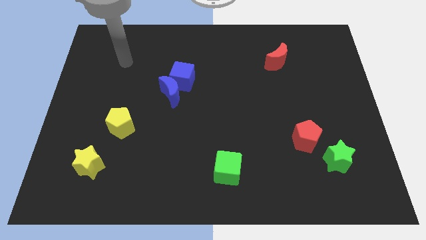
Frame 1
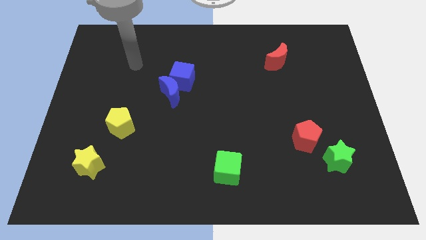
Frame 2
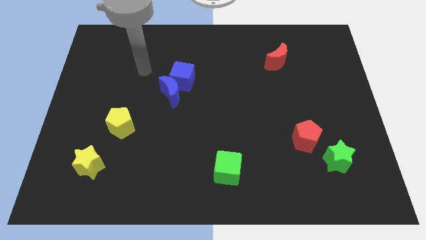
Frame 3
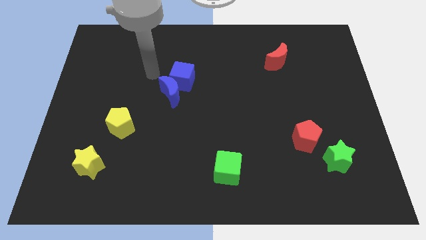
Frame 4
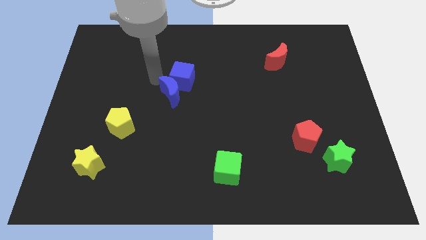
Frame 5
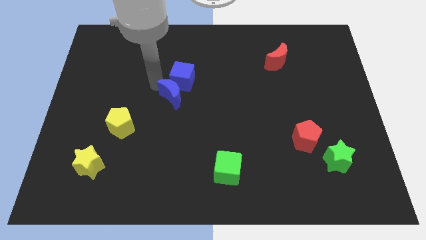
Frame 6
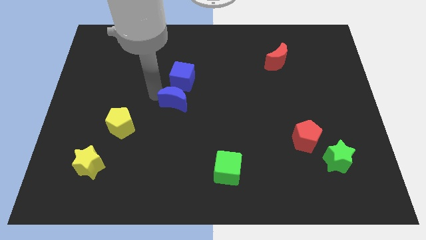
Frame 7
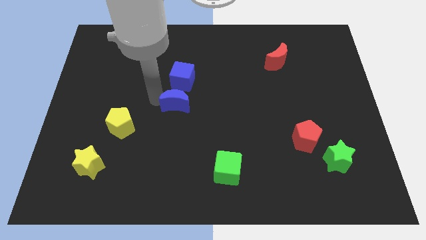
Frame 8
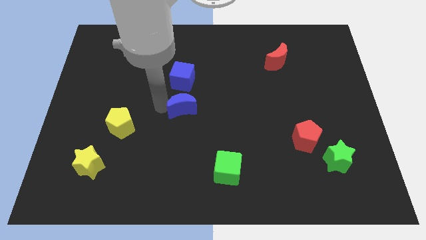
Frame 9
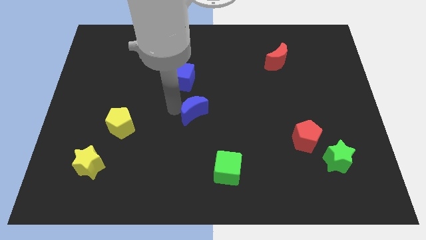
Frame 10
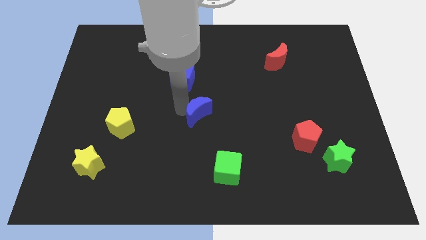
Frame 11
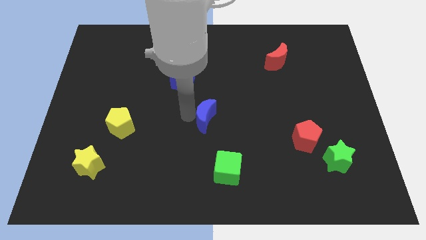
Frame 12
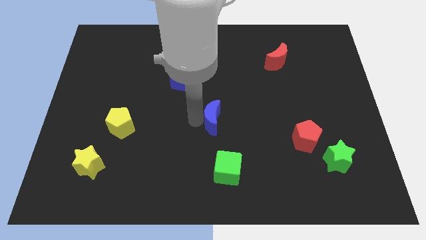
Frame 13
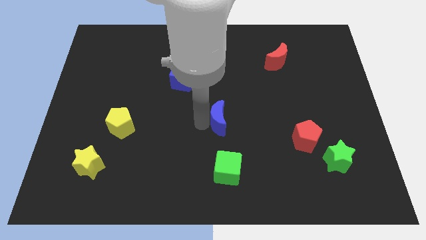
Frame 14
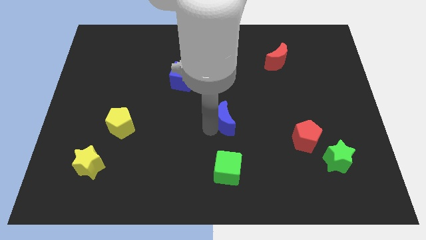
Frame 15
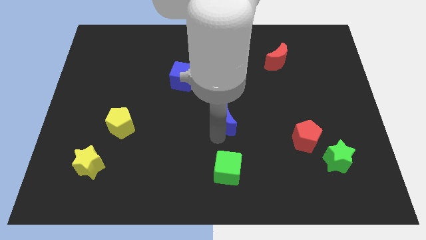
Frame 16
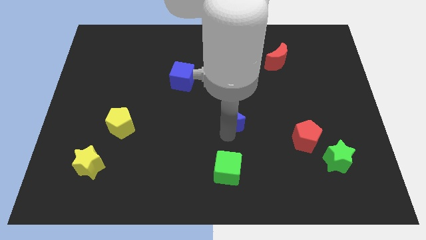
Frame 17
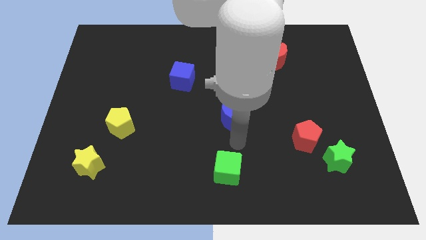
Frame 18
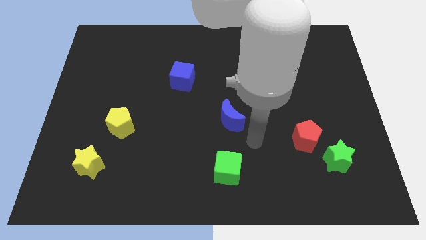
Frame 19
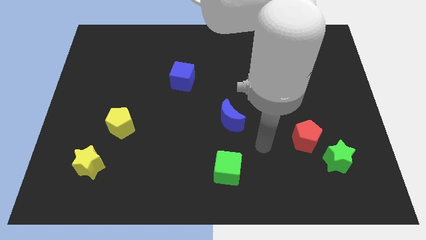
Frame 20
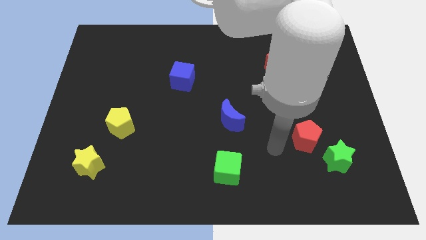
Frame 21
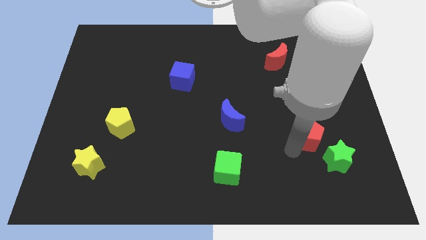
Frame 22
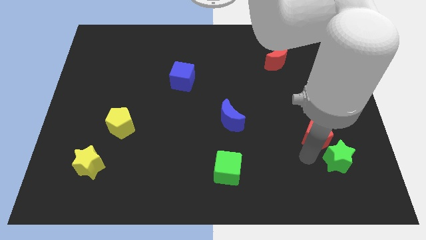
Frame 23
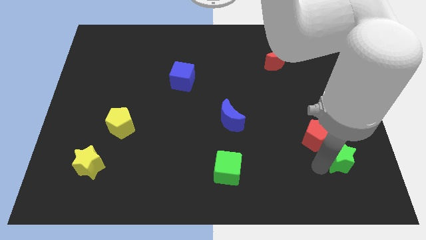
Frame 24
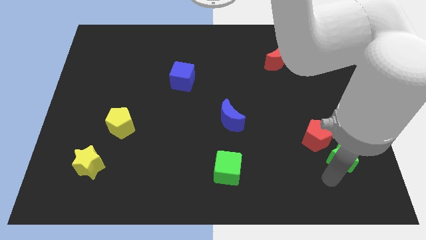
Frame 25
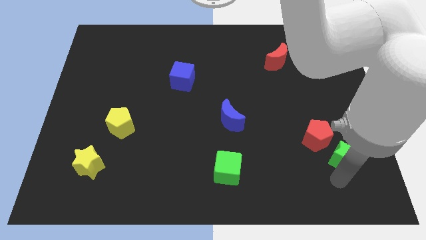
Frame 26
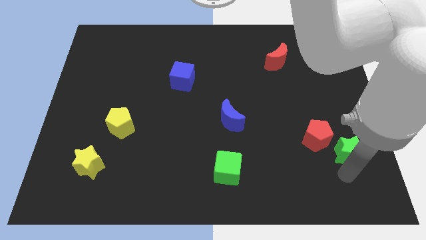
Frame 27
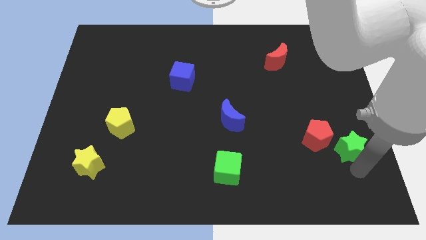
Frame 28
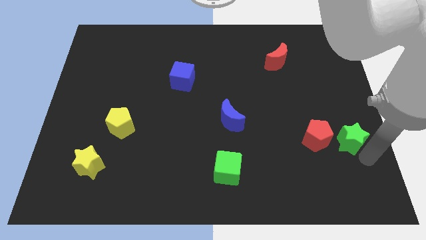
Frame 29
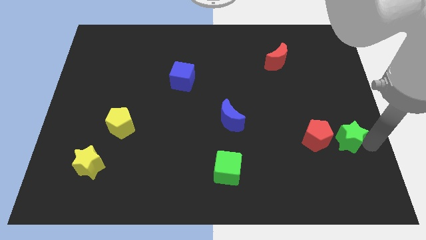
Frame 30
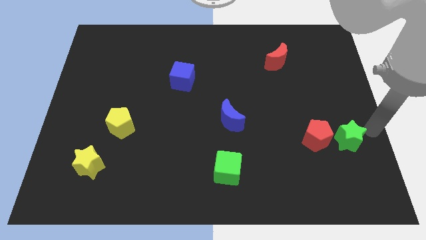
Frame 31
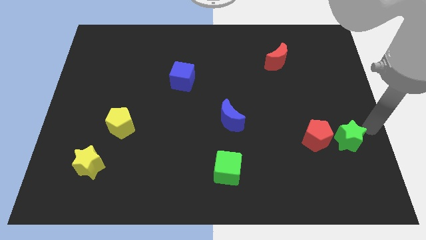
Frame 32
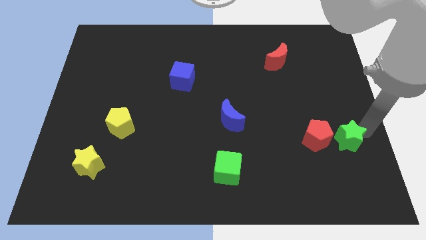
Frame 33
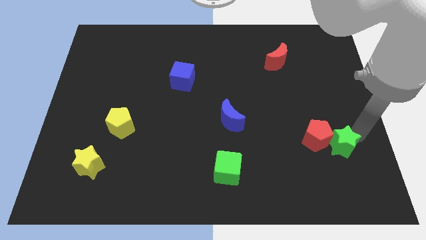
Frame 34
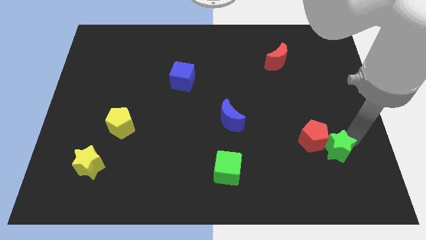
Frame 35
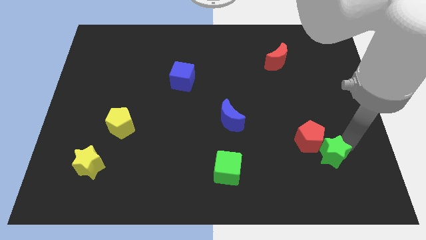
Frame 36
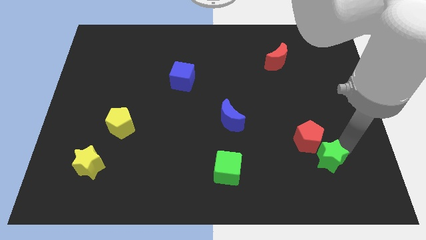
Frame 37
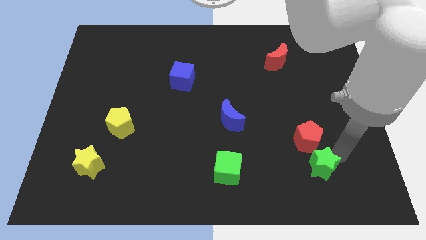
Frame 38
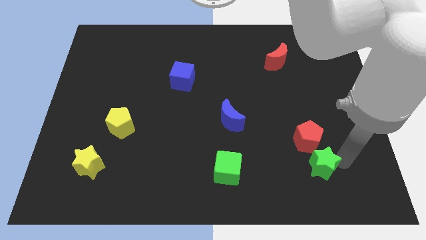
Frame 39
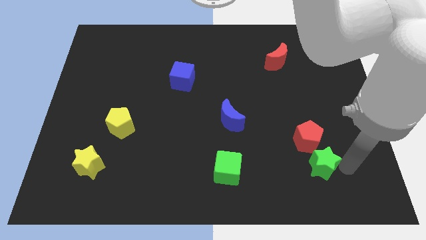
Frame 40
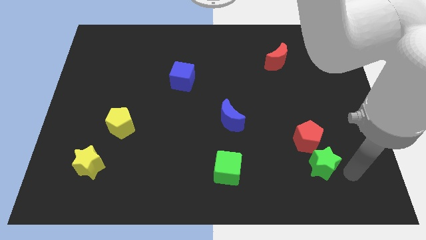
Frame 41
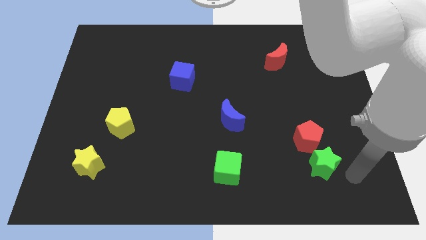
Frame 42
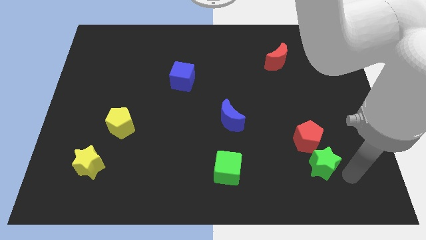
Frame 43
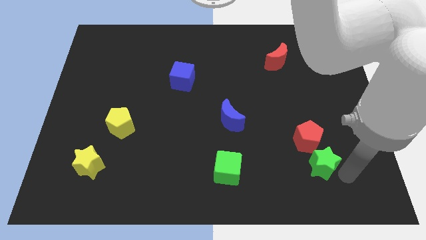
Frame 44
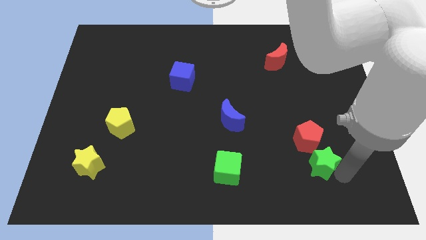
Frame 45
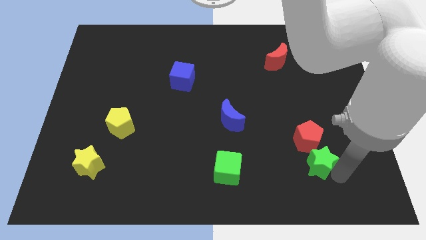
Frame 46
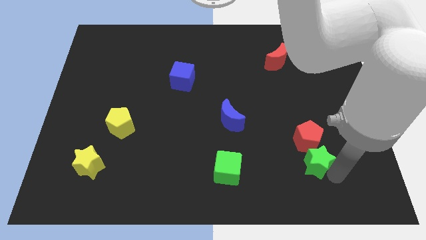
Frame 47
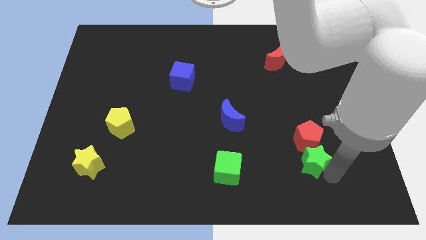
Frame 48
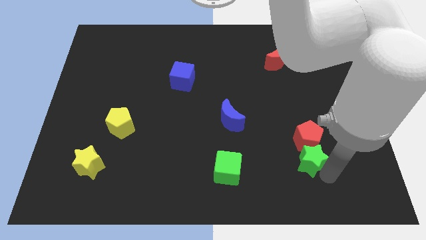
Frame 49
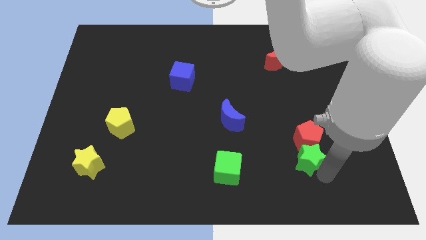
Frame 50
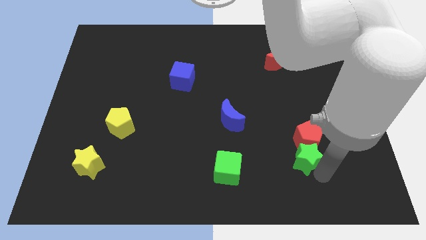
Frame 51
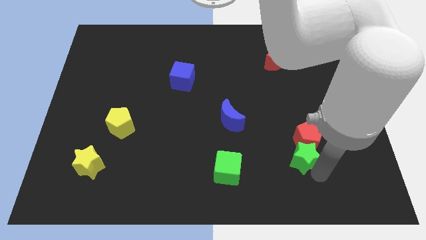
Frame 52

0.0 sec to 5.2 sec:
slightly slide the green star to the left

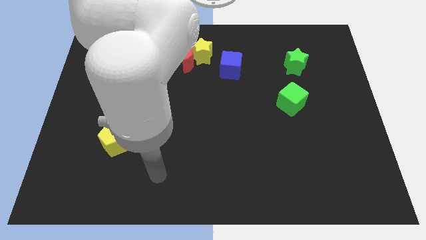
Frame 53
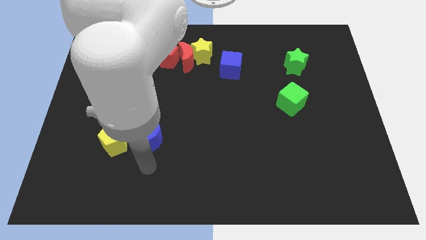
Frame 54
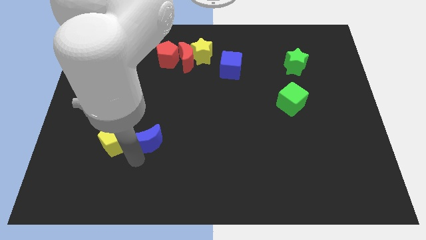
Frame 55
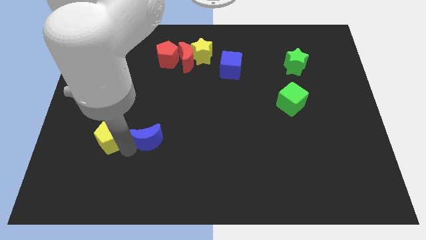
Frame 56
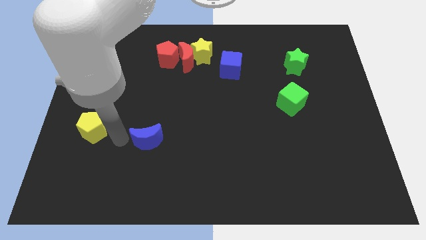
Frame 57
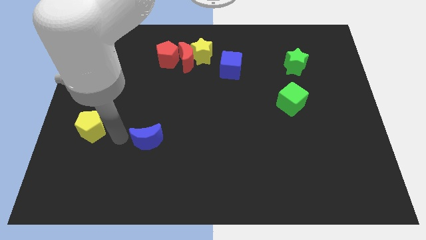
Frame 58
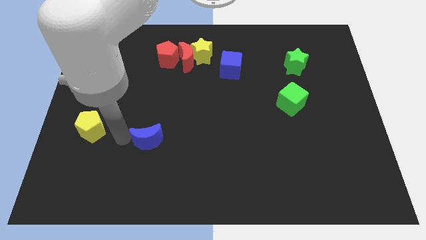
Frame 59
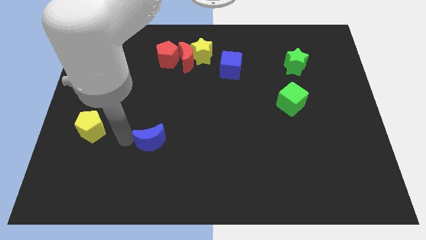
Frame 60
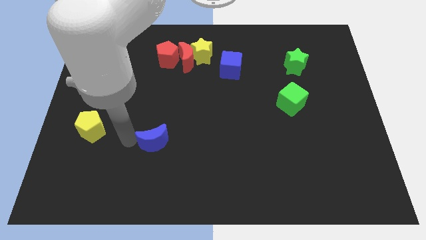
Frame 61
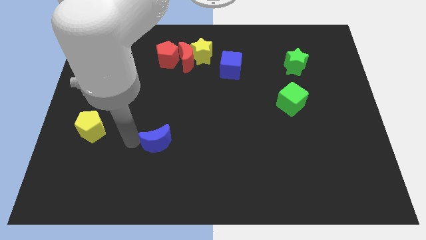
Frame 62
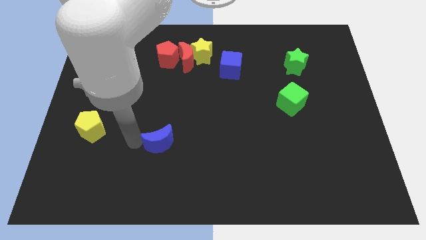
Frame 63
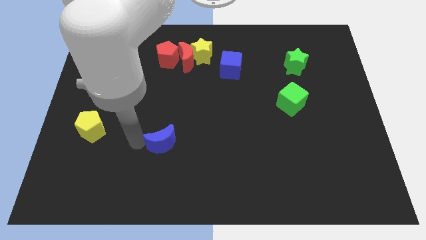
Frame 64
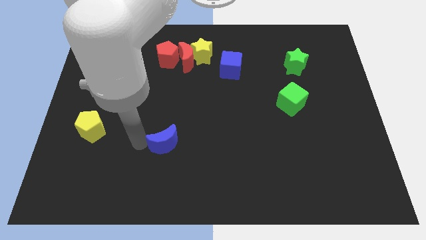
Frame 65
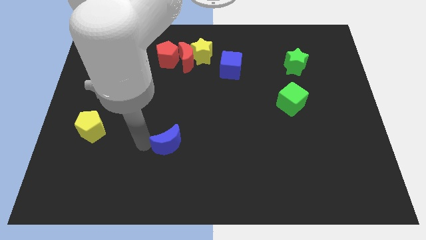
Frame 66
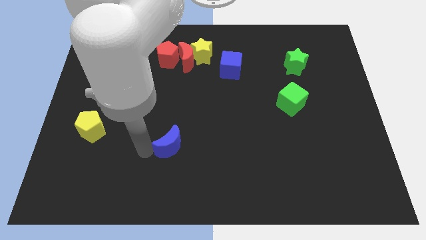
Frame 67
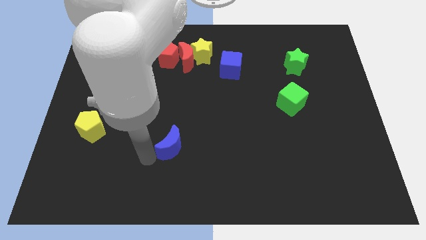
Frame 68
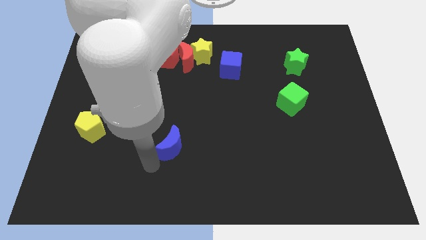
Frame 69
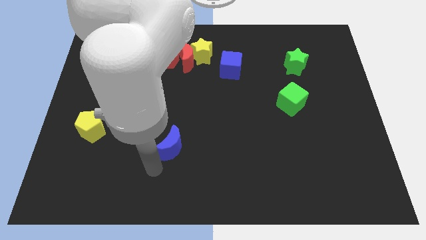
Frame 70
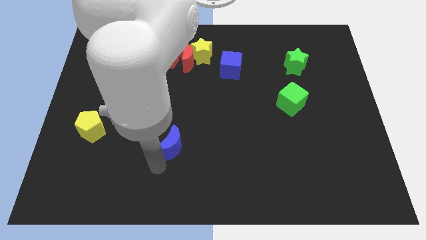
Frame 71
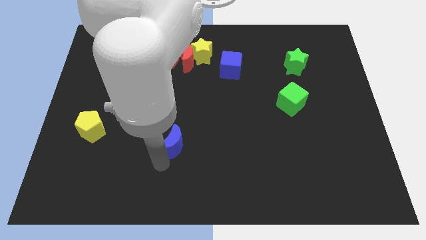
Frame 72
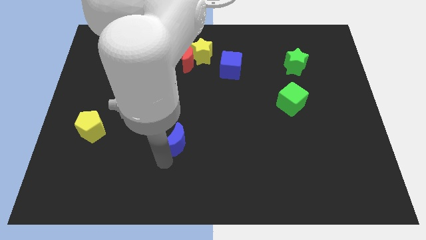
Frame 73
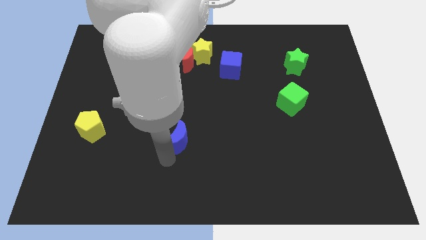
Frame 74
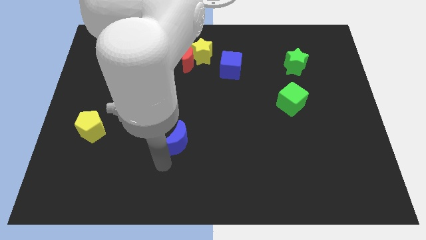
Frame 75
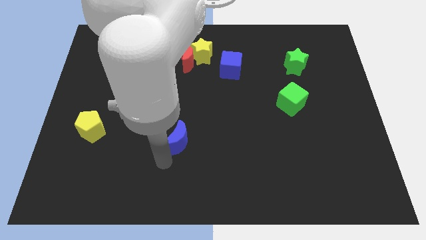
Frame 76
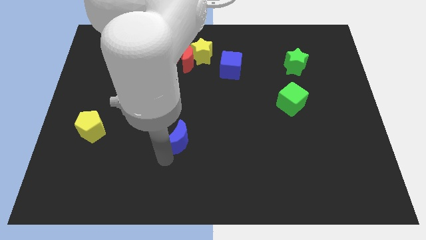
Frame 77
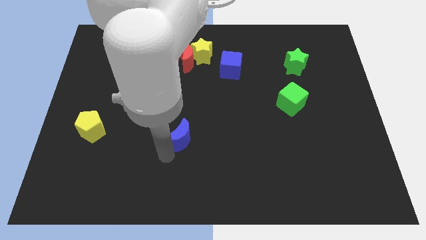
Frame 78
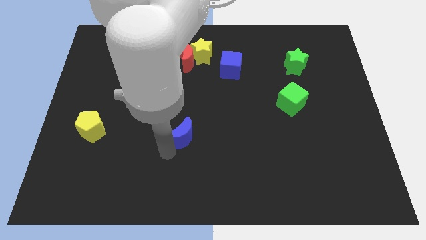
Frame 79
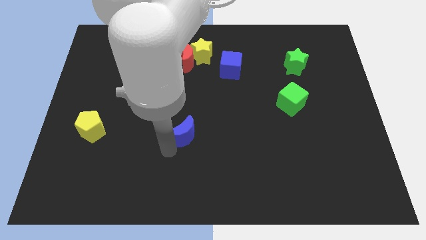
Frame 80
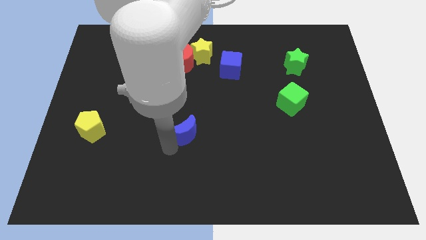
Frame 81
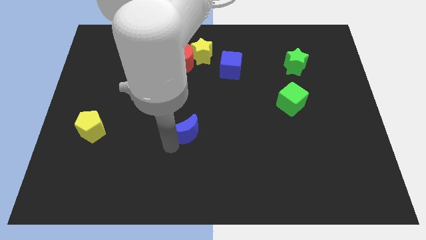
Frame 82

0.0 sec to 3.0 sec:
slightly slide the blue moon diagonally up and right
